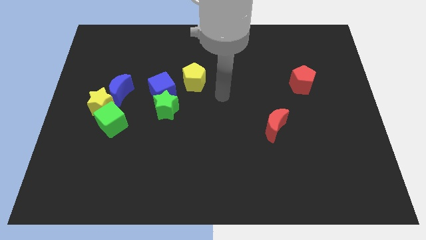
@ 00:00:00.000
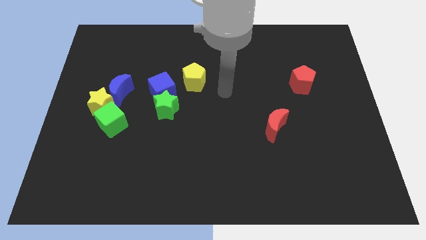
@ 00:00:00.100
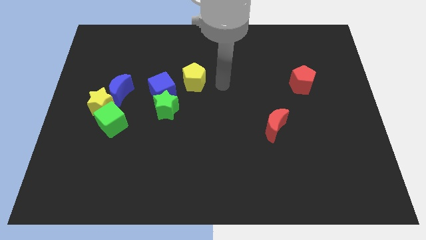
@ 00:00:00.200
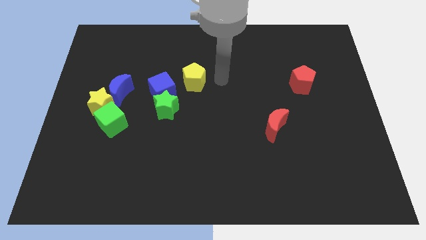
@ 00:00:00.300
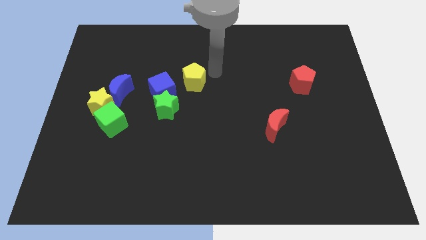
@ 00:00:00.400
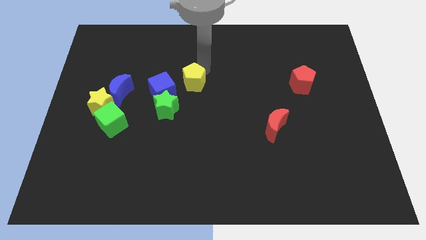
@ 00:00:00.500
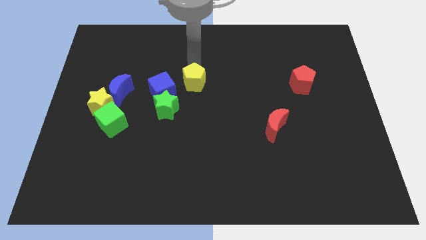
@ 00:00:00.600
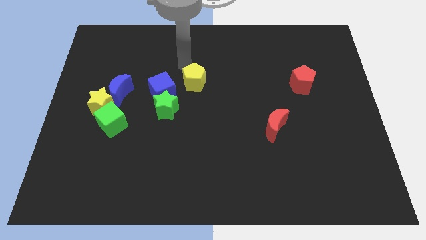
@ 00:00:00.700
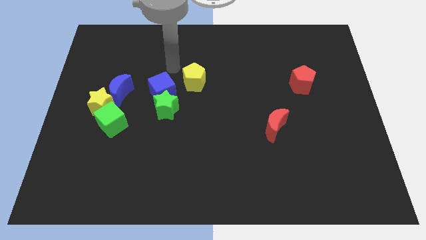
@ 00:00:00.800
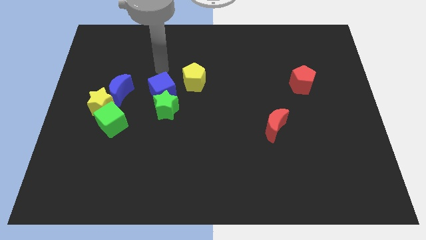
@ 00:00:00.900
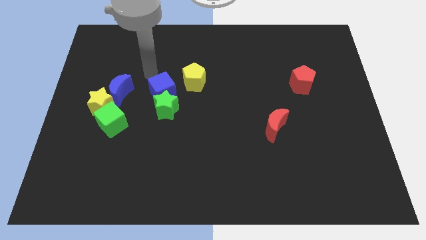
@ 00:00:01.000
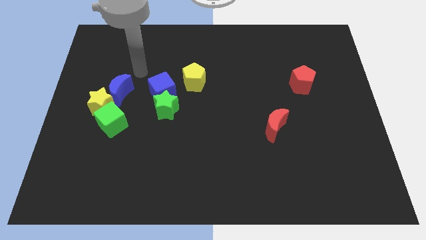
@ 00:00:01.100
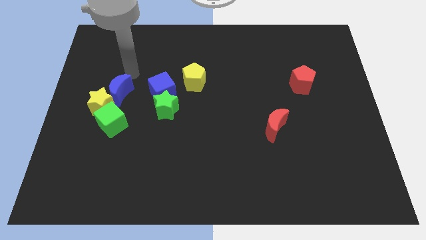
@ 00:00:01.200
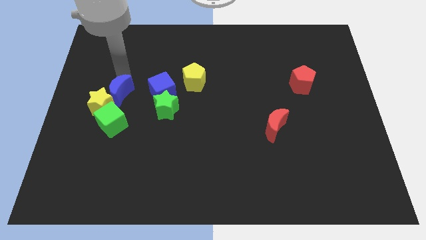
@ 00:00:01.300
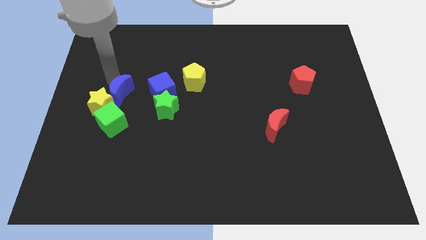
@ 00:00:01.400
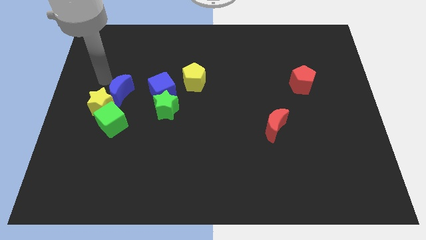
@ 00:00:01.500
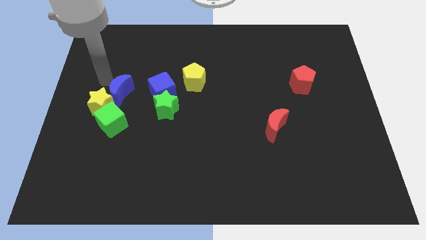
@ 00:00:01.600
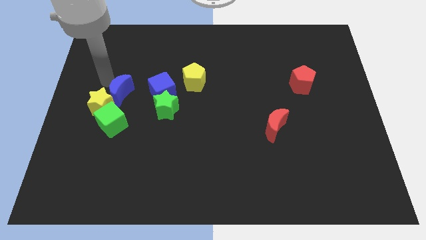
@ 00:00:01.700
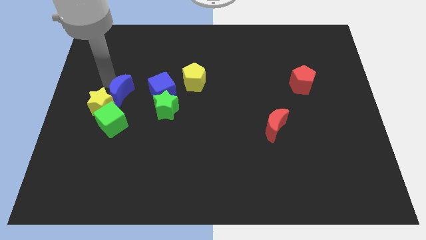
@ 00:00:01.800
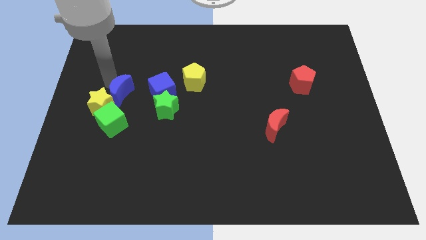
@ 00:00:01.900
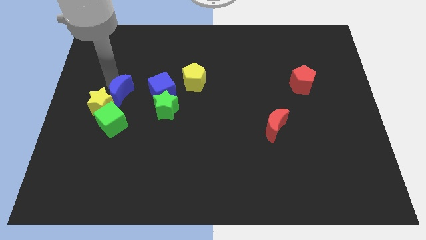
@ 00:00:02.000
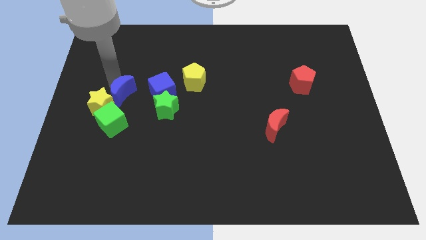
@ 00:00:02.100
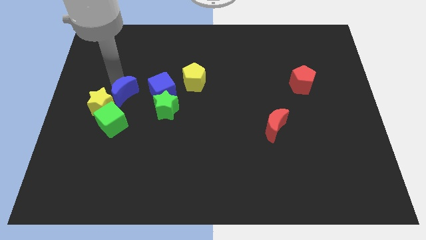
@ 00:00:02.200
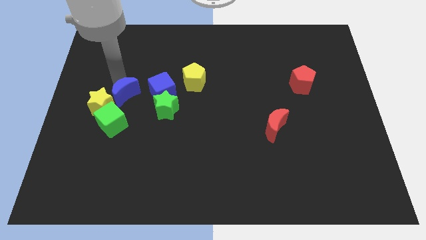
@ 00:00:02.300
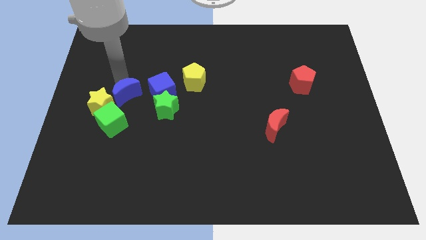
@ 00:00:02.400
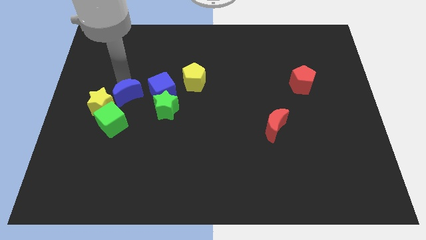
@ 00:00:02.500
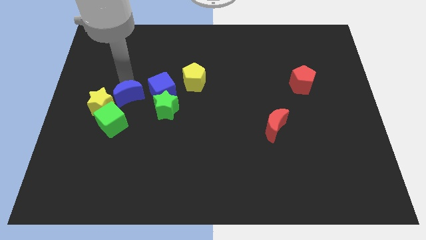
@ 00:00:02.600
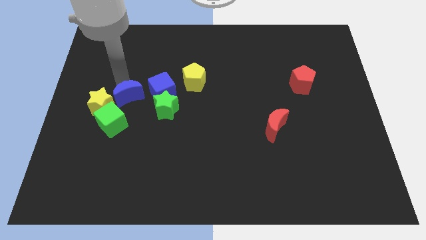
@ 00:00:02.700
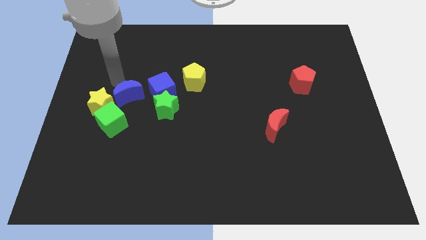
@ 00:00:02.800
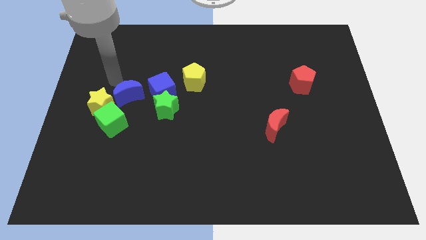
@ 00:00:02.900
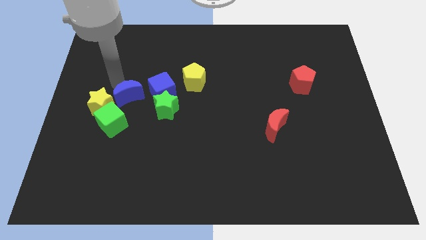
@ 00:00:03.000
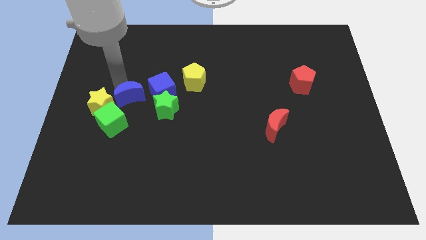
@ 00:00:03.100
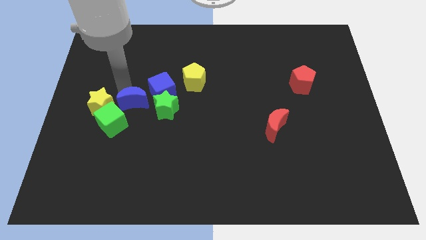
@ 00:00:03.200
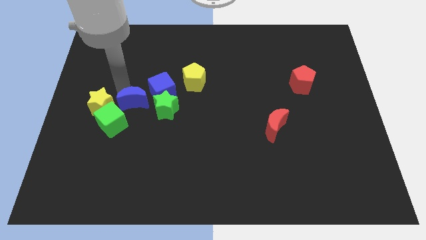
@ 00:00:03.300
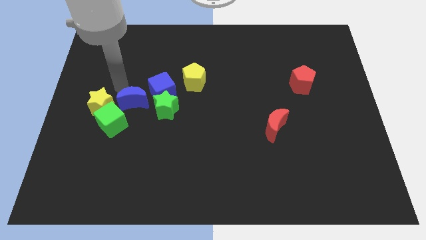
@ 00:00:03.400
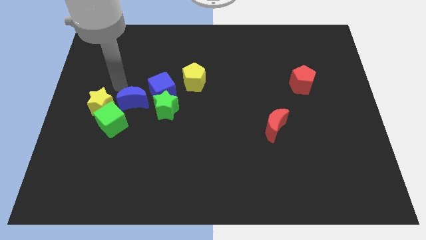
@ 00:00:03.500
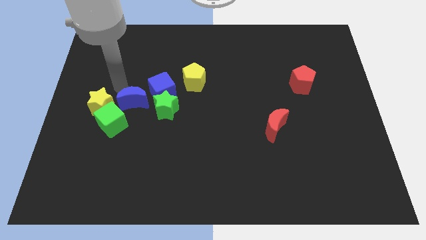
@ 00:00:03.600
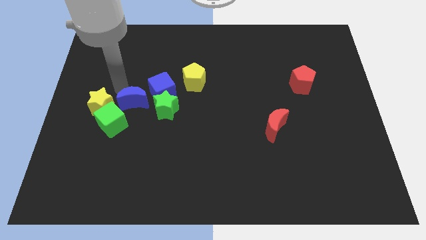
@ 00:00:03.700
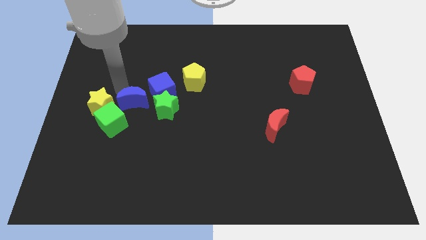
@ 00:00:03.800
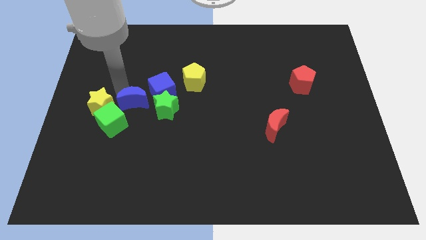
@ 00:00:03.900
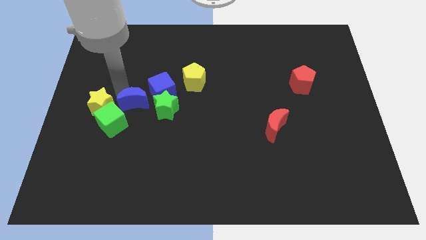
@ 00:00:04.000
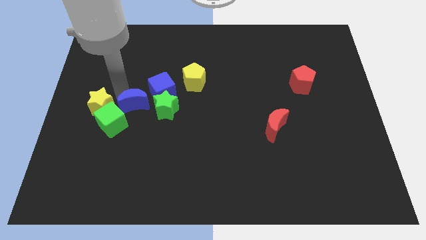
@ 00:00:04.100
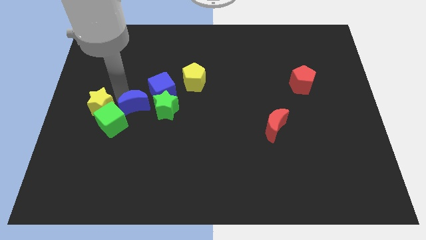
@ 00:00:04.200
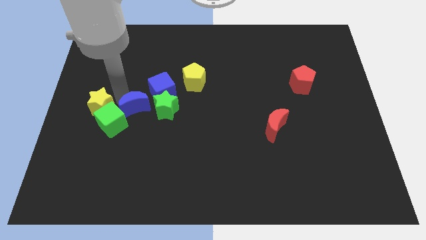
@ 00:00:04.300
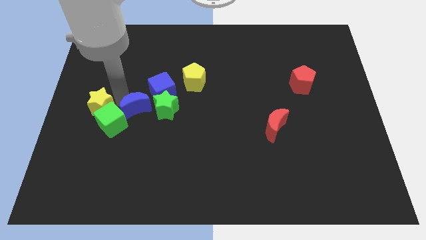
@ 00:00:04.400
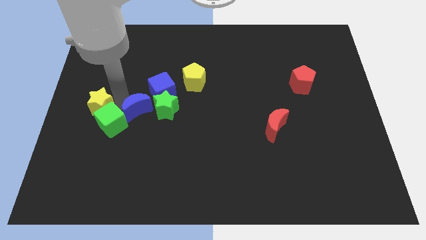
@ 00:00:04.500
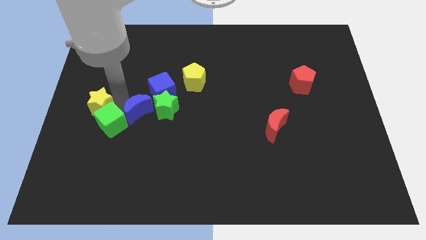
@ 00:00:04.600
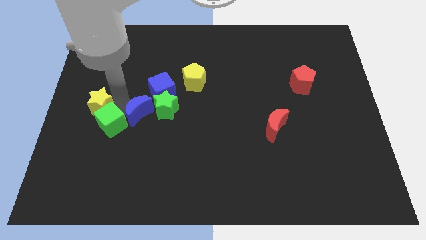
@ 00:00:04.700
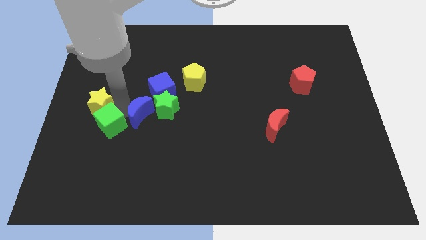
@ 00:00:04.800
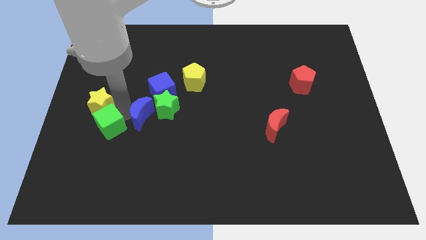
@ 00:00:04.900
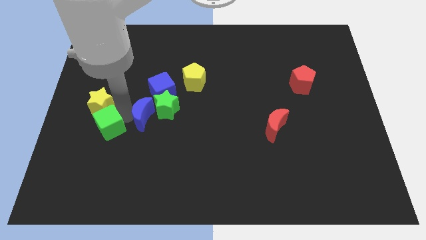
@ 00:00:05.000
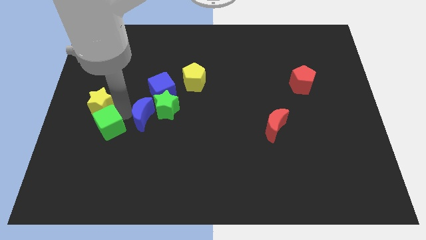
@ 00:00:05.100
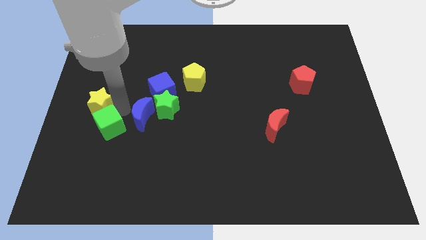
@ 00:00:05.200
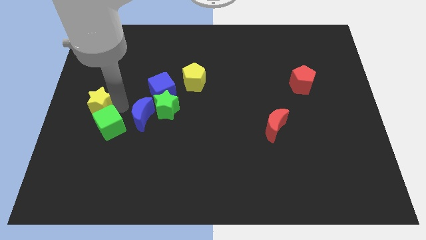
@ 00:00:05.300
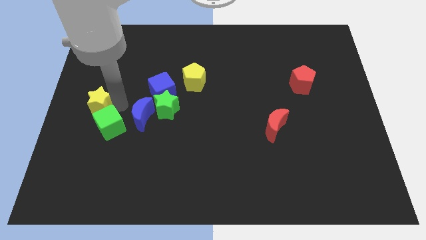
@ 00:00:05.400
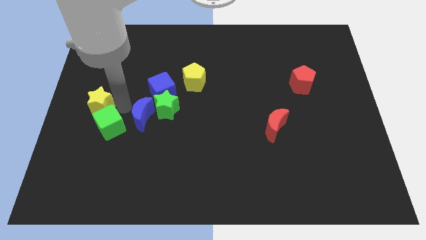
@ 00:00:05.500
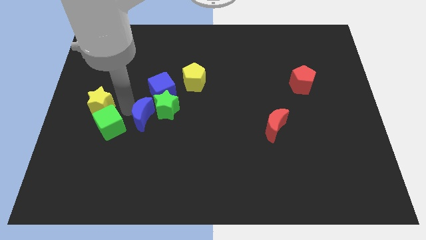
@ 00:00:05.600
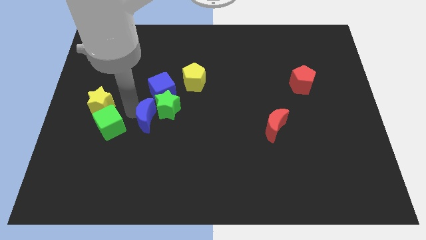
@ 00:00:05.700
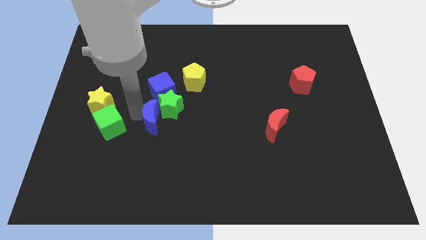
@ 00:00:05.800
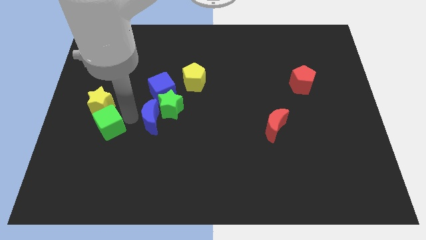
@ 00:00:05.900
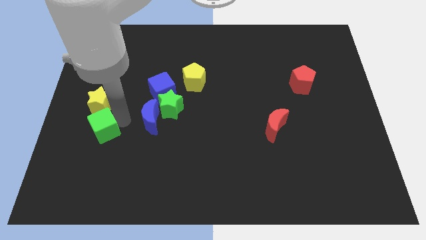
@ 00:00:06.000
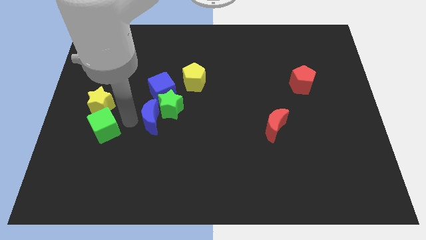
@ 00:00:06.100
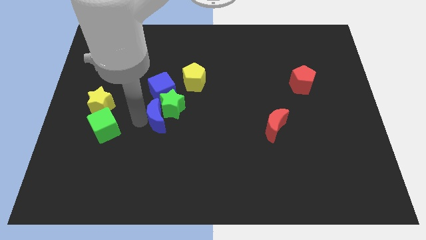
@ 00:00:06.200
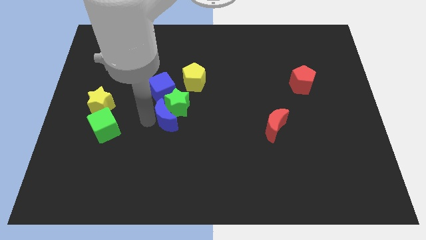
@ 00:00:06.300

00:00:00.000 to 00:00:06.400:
move the blue moon to the center of the board

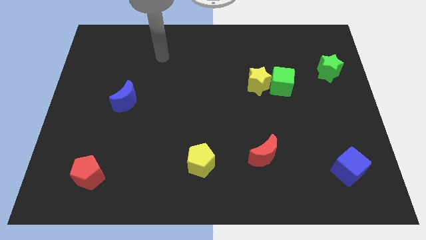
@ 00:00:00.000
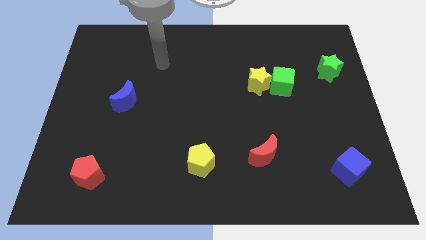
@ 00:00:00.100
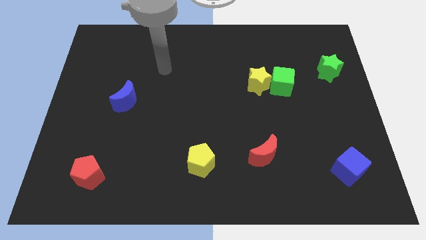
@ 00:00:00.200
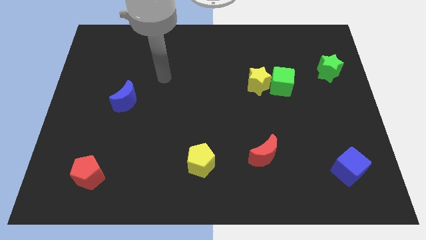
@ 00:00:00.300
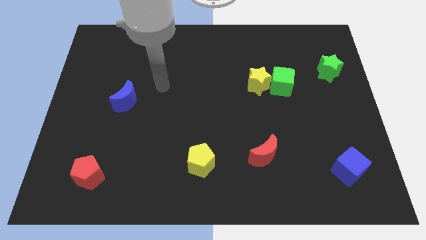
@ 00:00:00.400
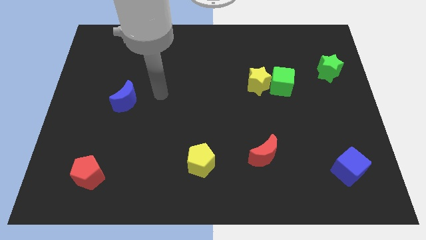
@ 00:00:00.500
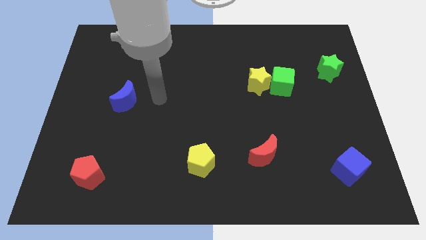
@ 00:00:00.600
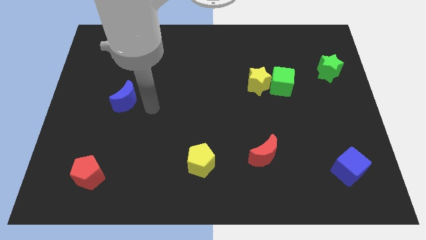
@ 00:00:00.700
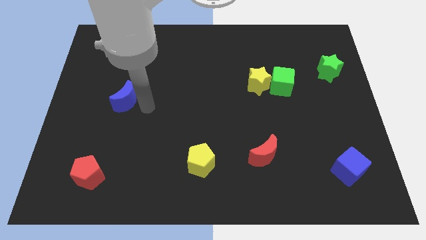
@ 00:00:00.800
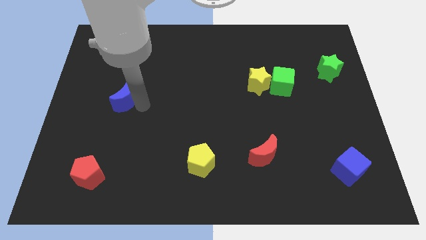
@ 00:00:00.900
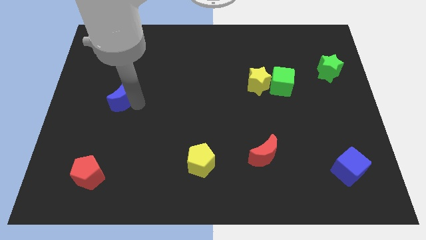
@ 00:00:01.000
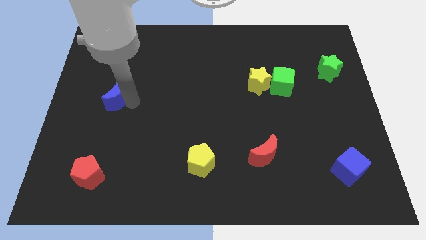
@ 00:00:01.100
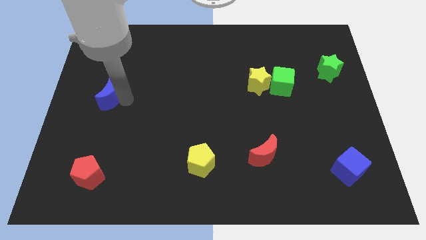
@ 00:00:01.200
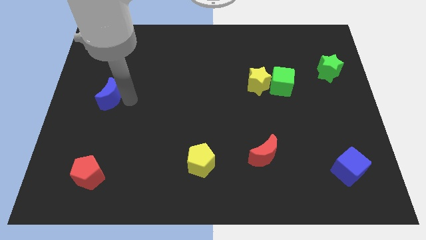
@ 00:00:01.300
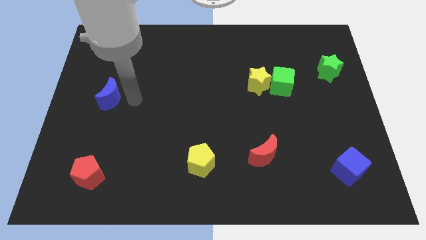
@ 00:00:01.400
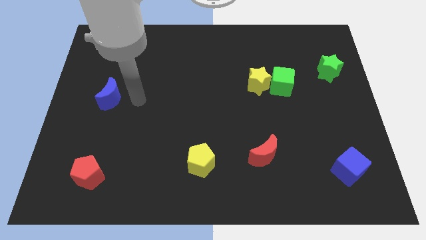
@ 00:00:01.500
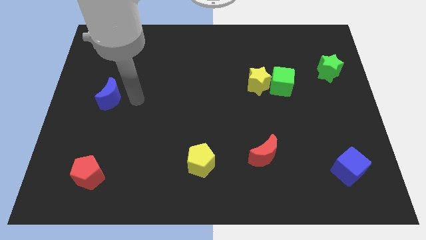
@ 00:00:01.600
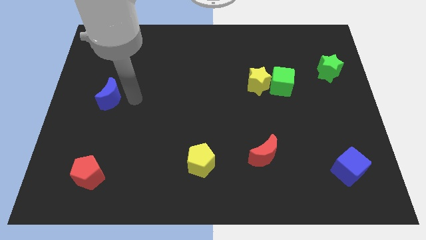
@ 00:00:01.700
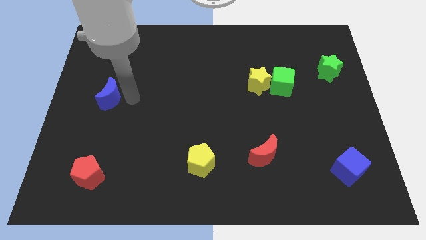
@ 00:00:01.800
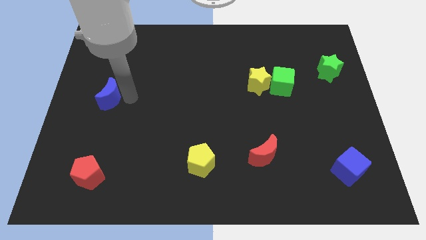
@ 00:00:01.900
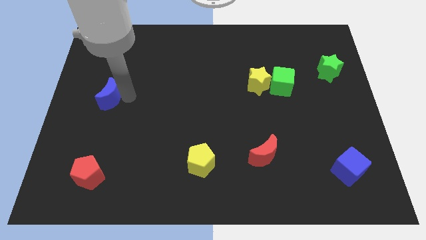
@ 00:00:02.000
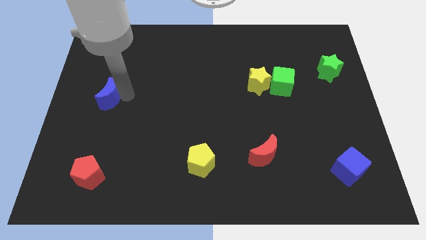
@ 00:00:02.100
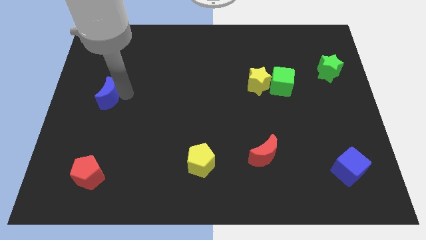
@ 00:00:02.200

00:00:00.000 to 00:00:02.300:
move the blue moon to the left side of the board
